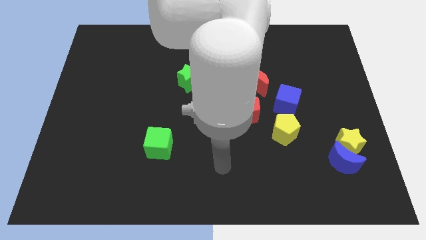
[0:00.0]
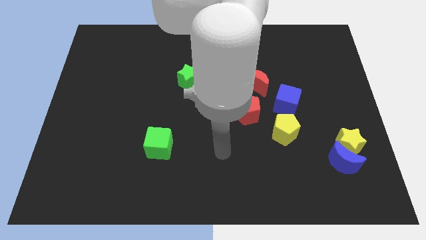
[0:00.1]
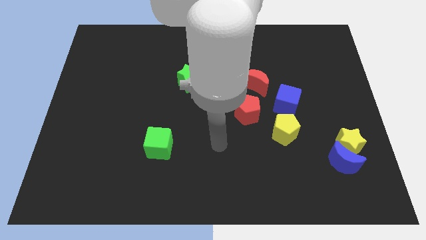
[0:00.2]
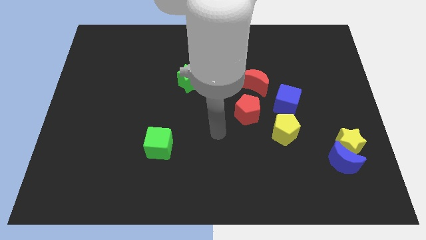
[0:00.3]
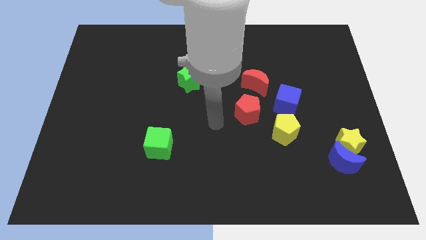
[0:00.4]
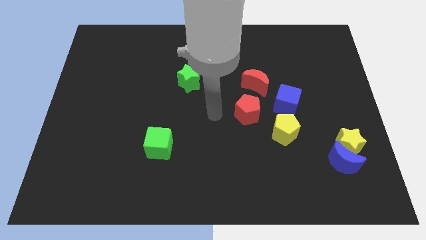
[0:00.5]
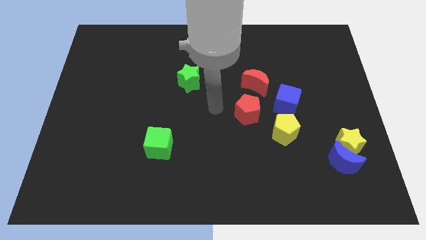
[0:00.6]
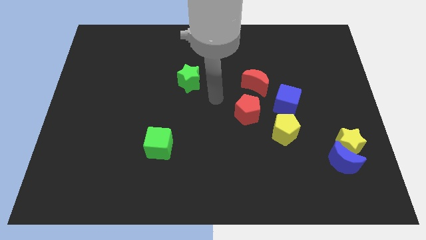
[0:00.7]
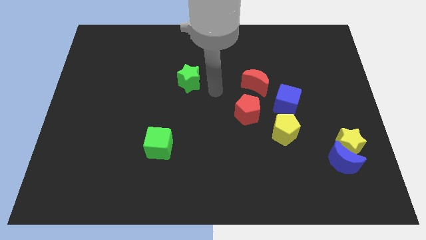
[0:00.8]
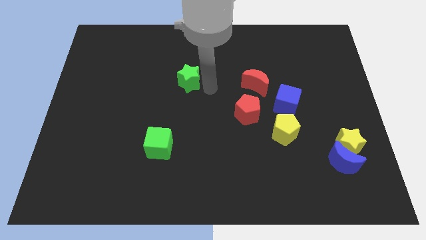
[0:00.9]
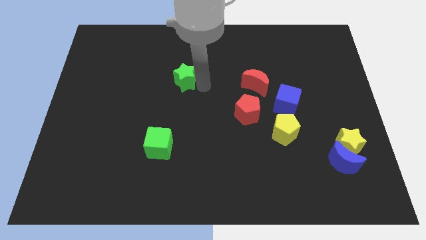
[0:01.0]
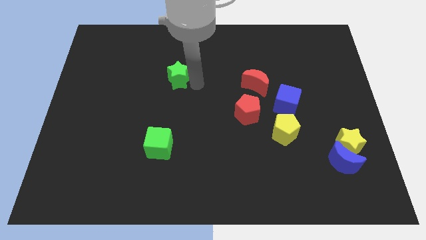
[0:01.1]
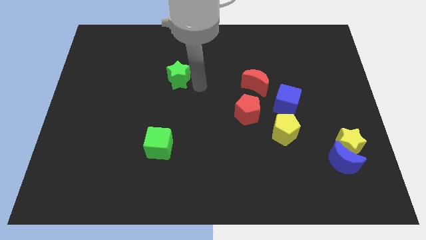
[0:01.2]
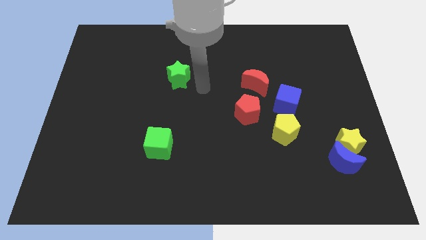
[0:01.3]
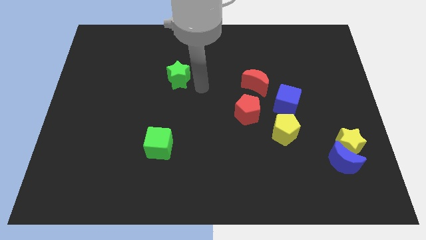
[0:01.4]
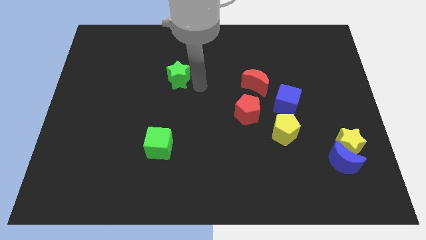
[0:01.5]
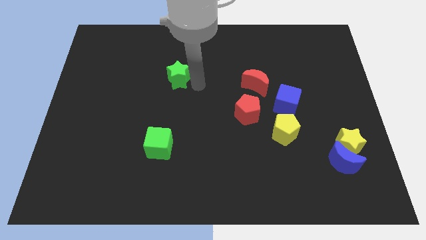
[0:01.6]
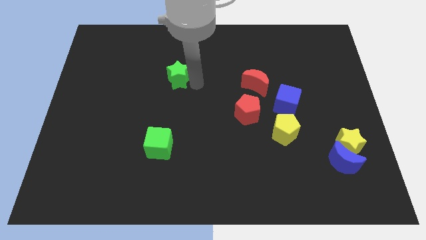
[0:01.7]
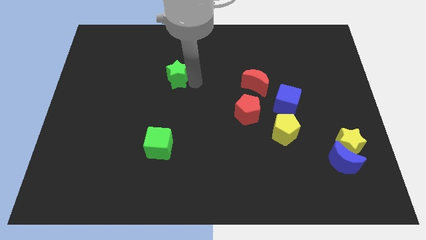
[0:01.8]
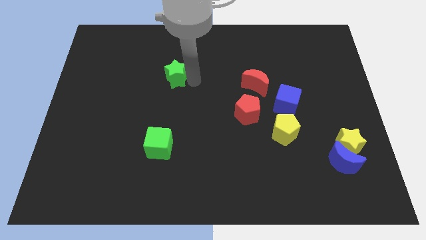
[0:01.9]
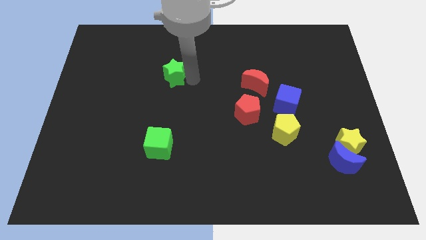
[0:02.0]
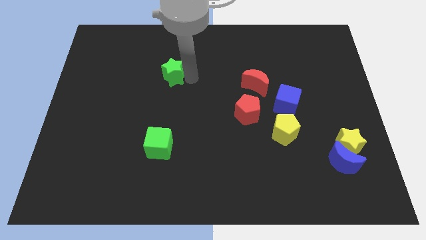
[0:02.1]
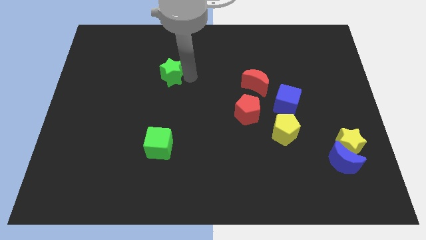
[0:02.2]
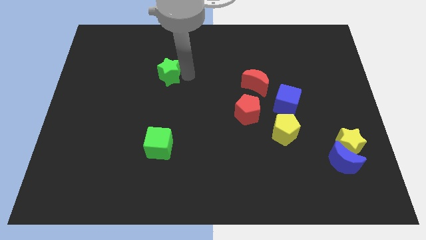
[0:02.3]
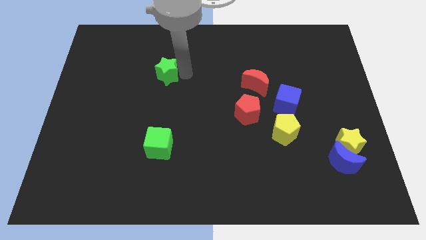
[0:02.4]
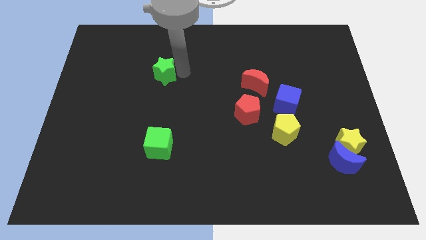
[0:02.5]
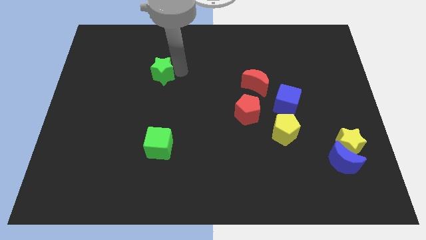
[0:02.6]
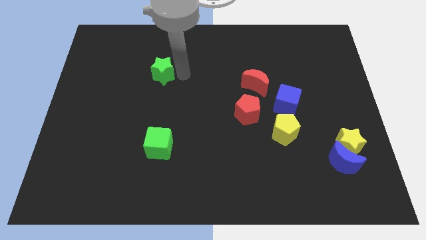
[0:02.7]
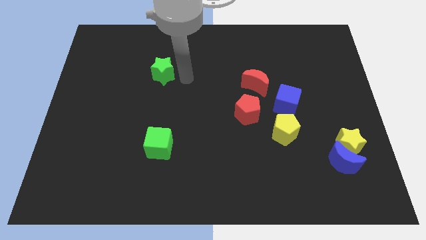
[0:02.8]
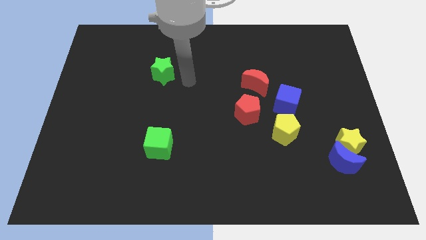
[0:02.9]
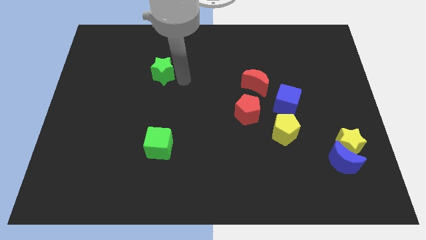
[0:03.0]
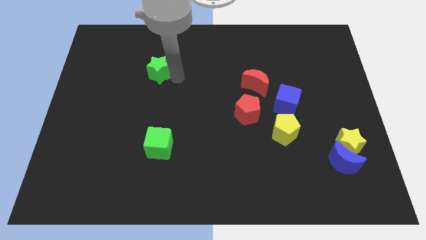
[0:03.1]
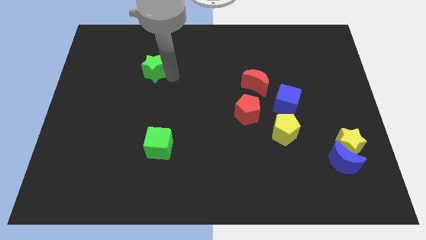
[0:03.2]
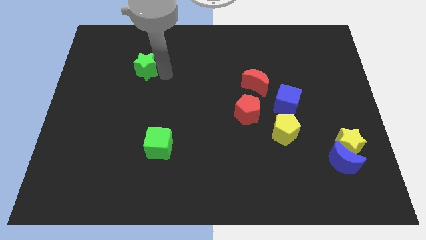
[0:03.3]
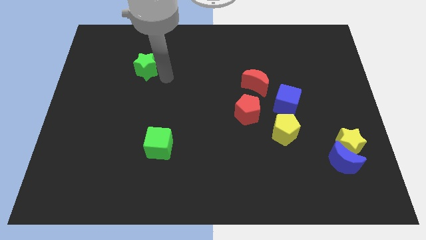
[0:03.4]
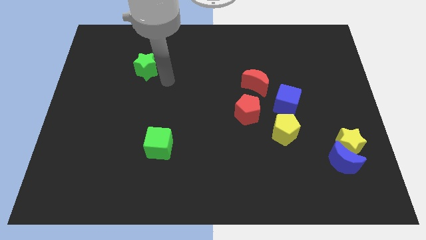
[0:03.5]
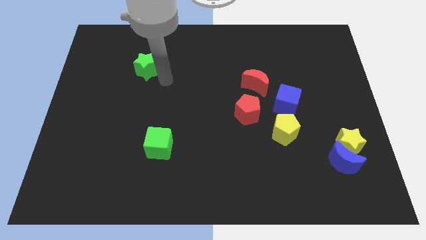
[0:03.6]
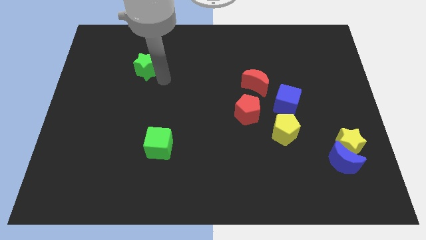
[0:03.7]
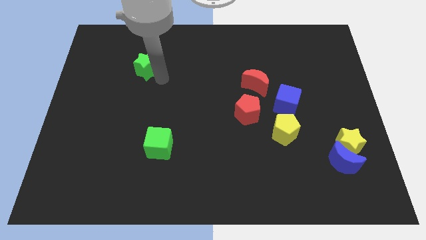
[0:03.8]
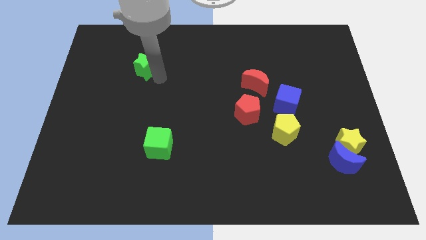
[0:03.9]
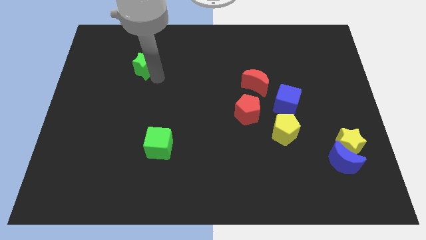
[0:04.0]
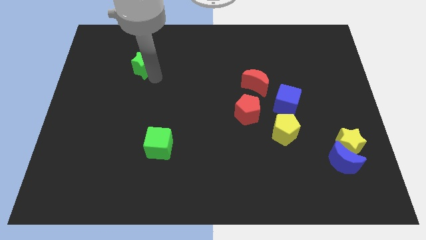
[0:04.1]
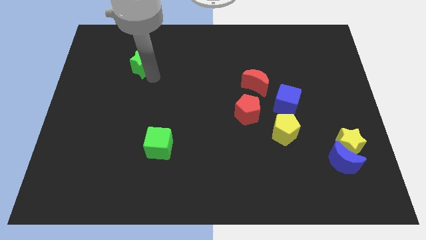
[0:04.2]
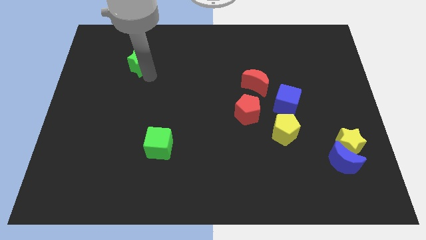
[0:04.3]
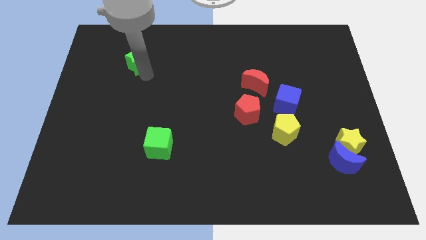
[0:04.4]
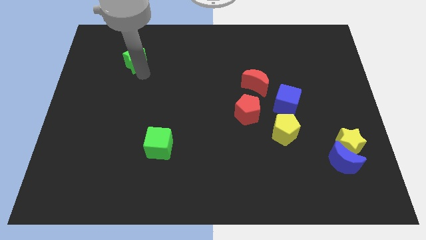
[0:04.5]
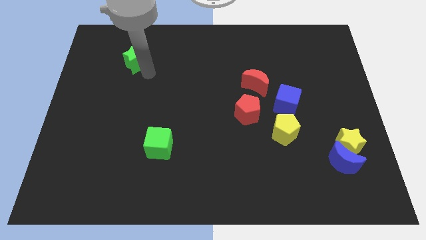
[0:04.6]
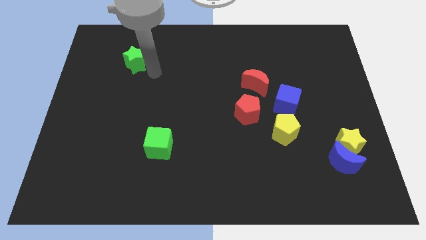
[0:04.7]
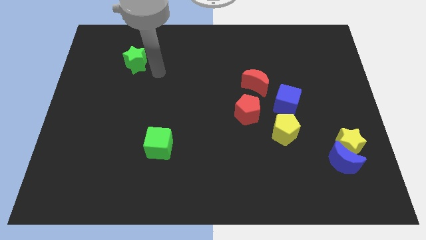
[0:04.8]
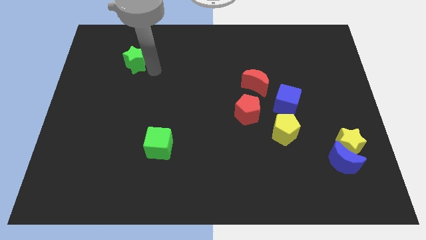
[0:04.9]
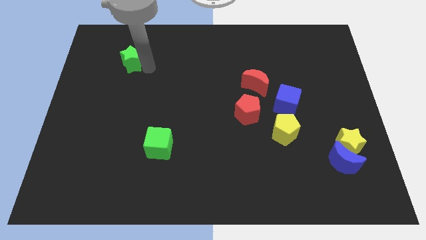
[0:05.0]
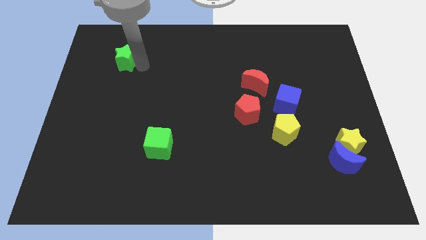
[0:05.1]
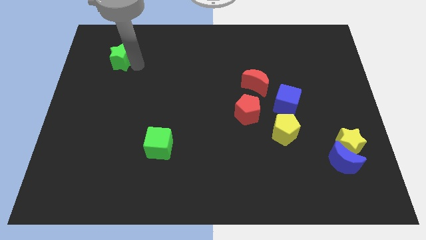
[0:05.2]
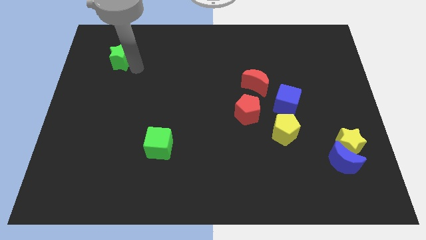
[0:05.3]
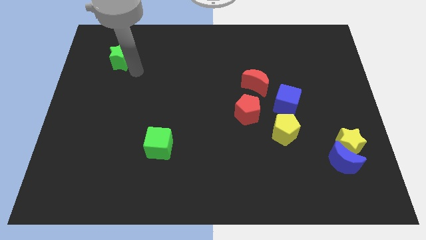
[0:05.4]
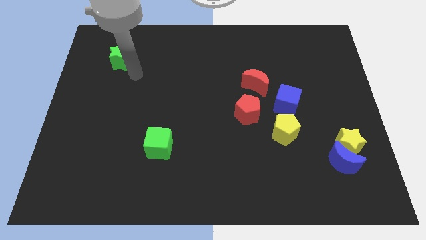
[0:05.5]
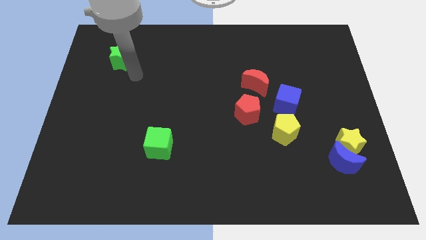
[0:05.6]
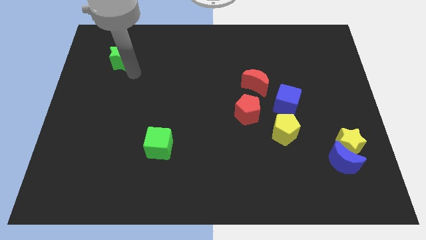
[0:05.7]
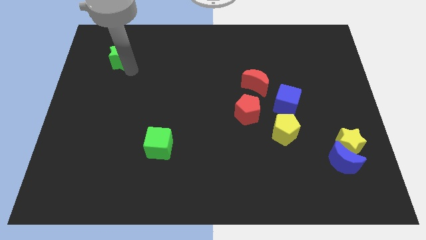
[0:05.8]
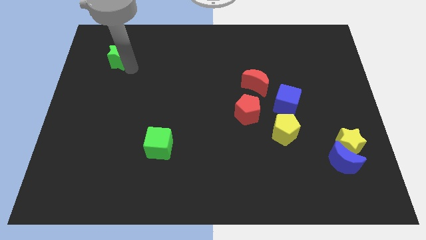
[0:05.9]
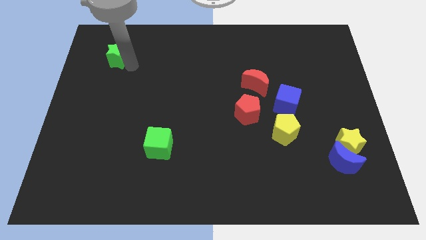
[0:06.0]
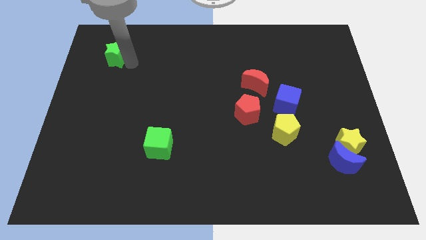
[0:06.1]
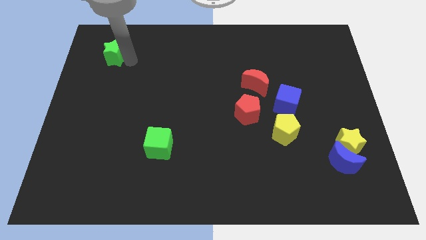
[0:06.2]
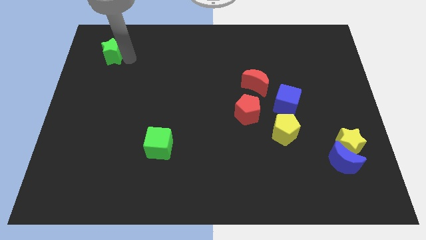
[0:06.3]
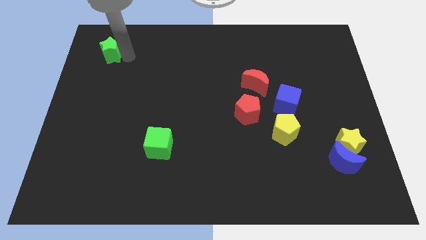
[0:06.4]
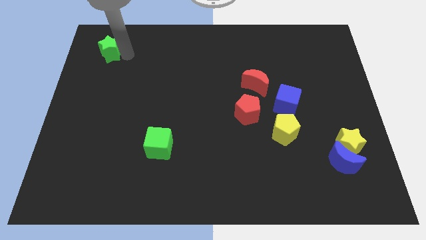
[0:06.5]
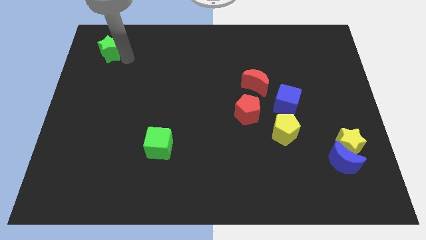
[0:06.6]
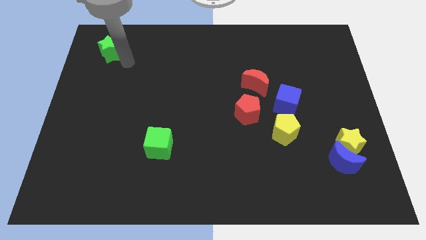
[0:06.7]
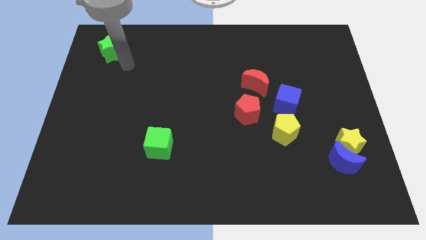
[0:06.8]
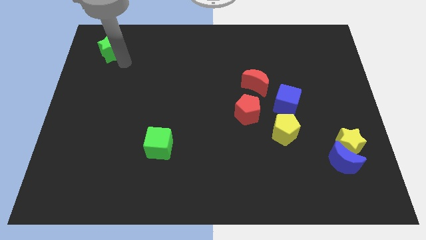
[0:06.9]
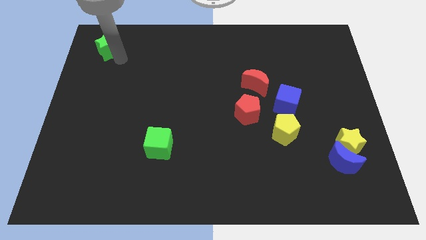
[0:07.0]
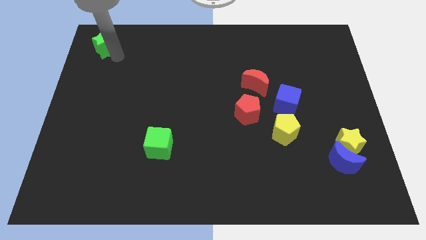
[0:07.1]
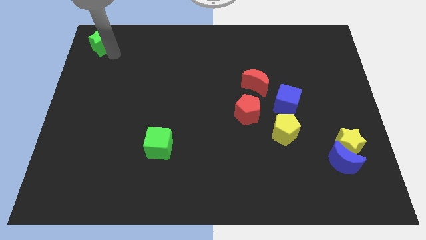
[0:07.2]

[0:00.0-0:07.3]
put the green star to the top left of the board
